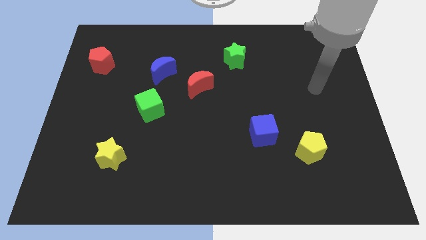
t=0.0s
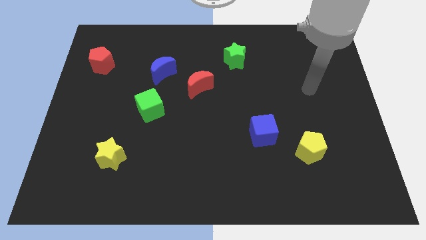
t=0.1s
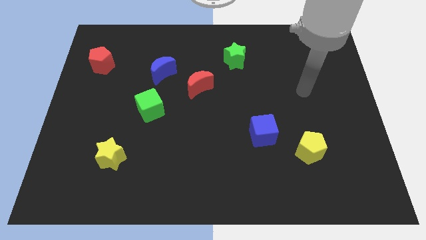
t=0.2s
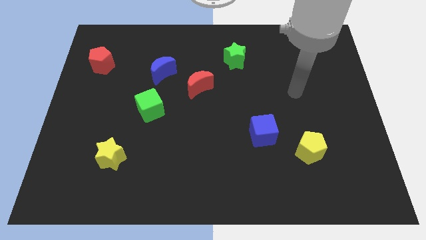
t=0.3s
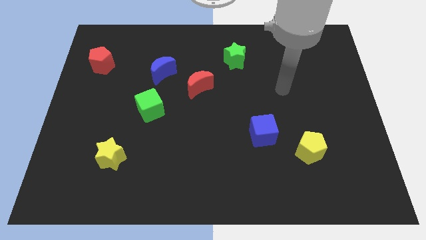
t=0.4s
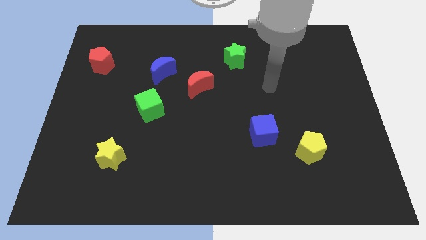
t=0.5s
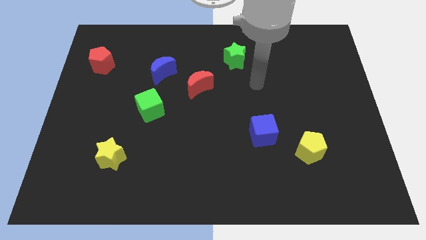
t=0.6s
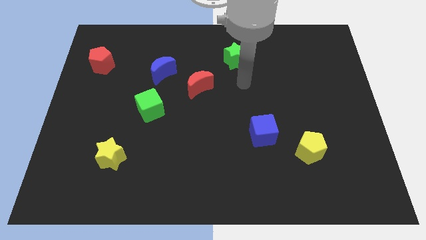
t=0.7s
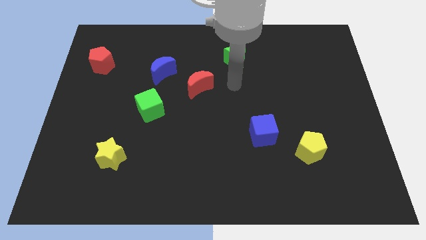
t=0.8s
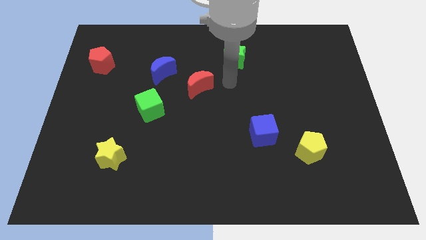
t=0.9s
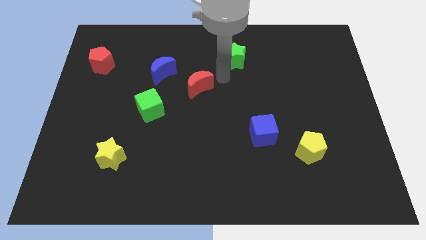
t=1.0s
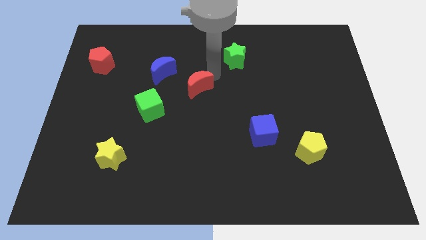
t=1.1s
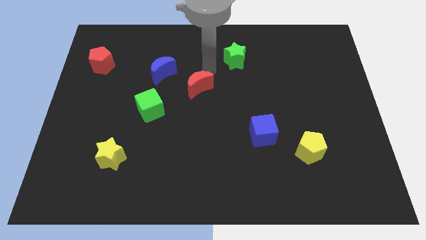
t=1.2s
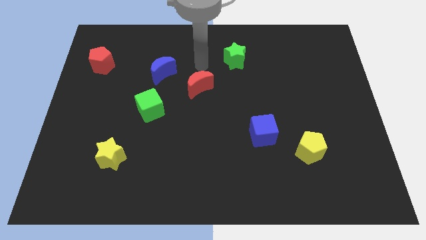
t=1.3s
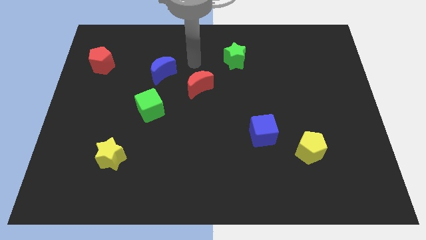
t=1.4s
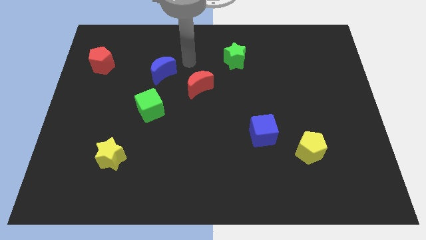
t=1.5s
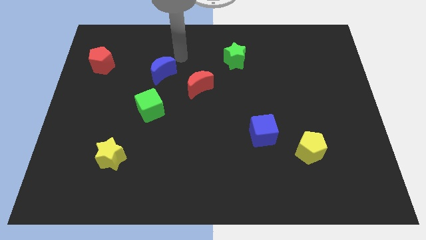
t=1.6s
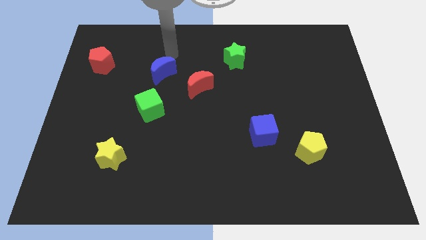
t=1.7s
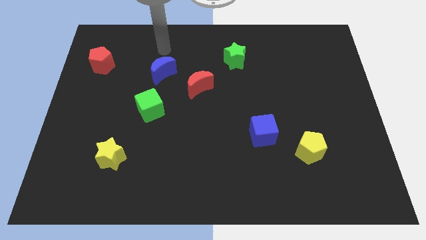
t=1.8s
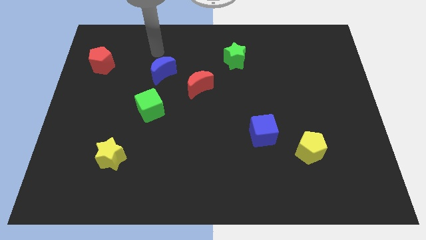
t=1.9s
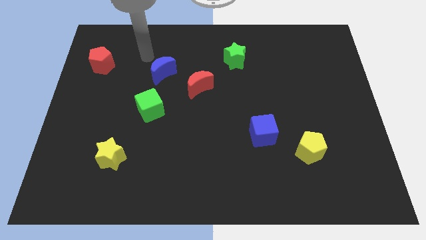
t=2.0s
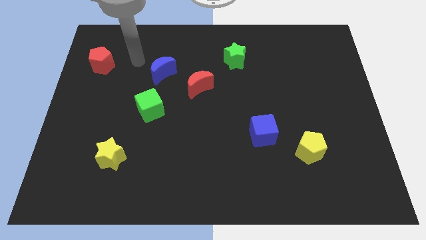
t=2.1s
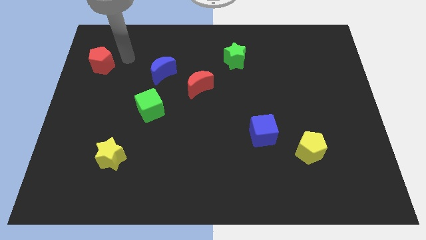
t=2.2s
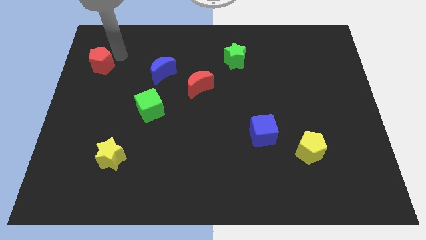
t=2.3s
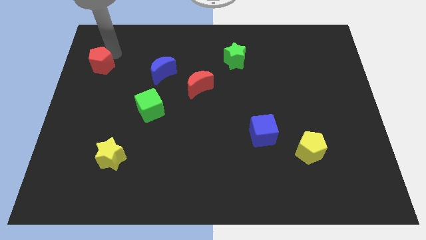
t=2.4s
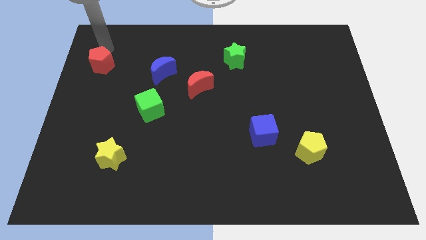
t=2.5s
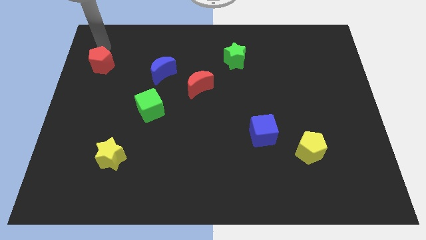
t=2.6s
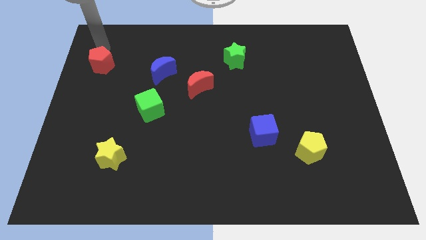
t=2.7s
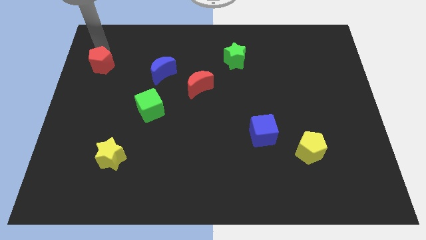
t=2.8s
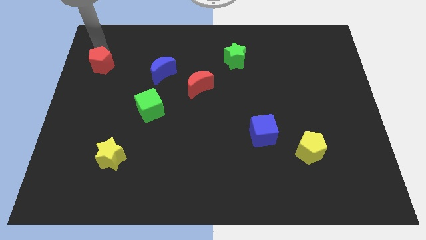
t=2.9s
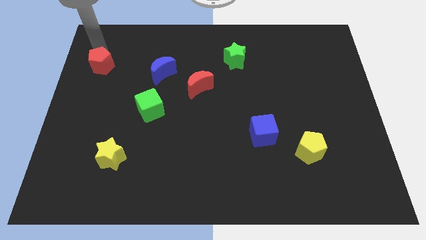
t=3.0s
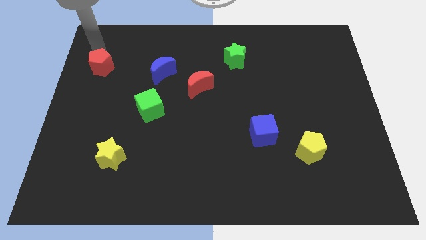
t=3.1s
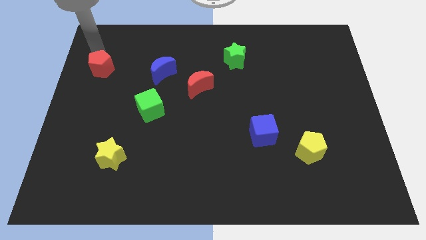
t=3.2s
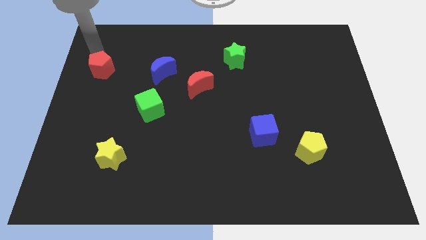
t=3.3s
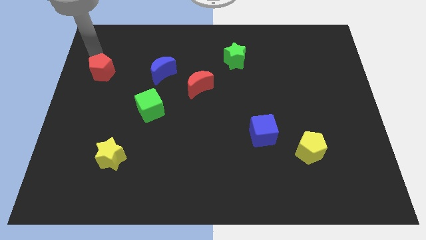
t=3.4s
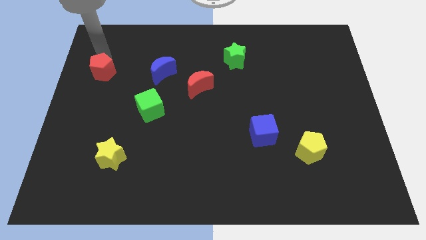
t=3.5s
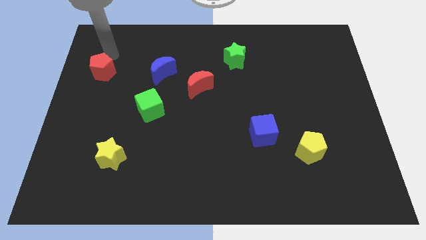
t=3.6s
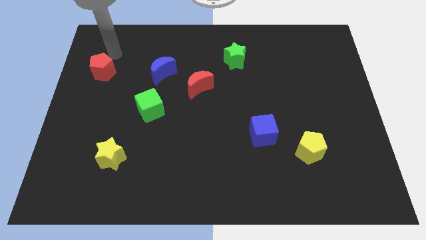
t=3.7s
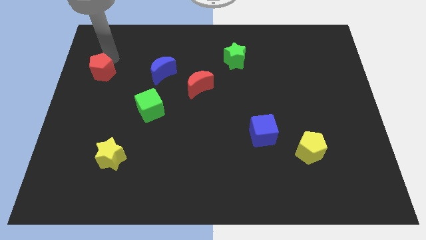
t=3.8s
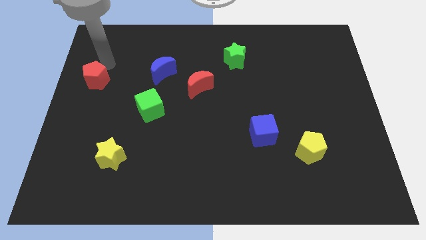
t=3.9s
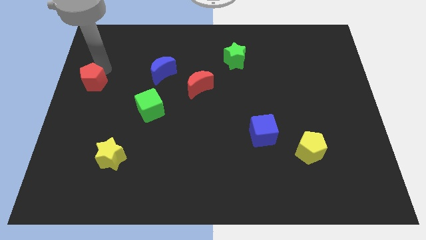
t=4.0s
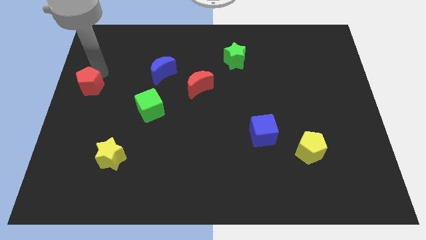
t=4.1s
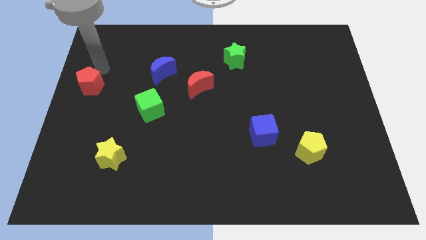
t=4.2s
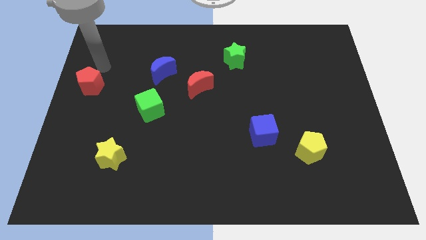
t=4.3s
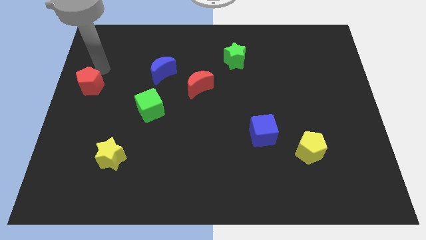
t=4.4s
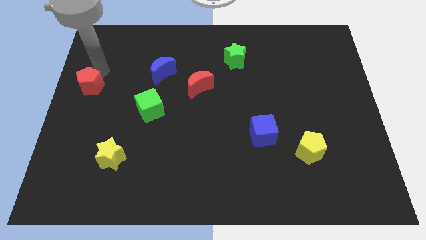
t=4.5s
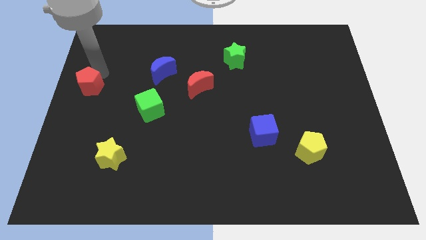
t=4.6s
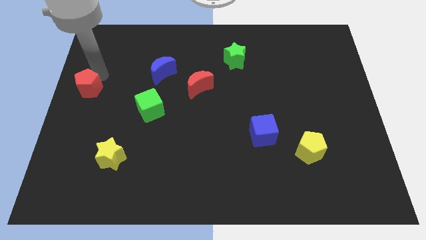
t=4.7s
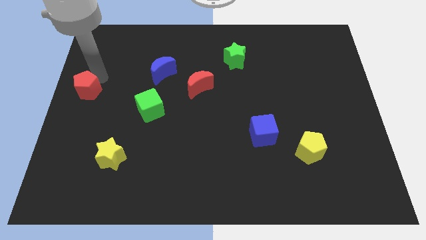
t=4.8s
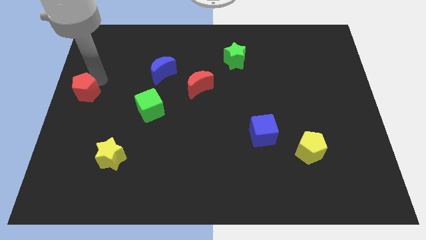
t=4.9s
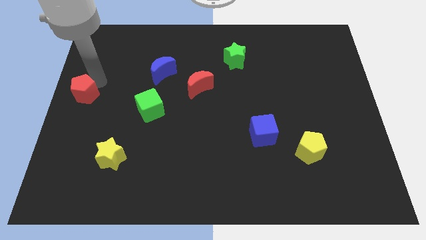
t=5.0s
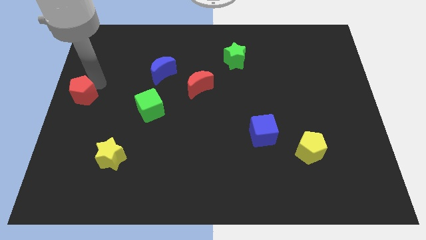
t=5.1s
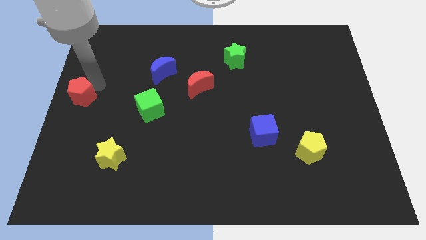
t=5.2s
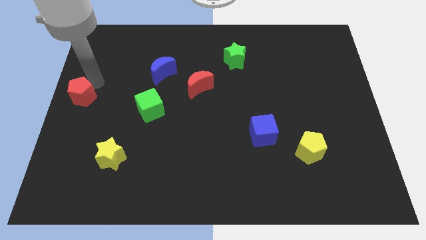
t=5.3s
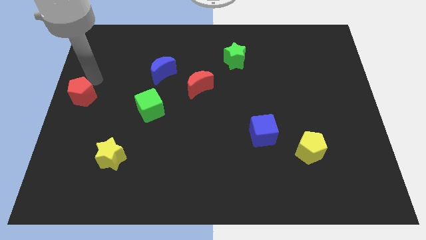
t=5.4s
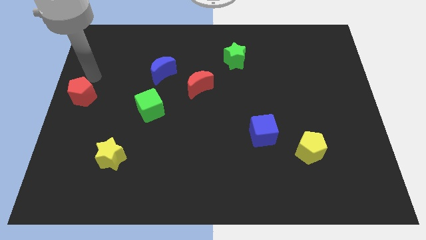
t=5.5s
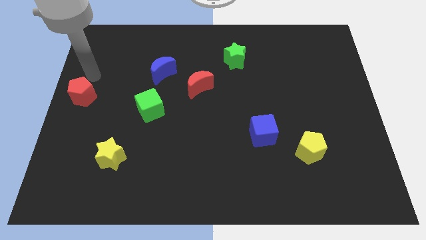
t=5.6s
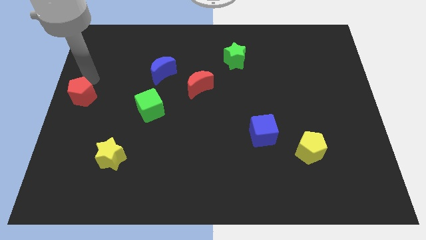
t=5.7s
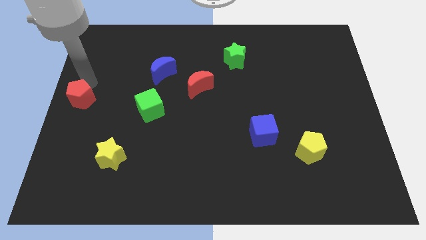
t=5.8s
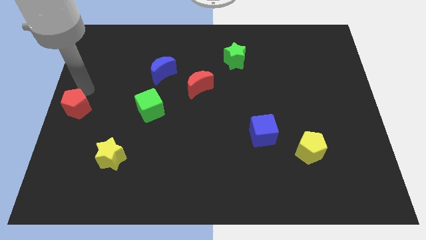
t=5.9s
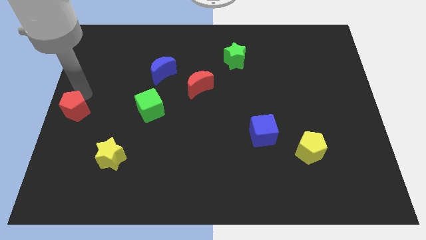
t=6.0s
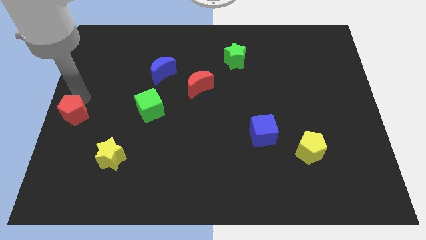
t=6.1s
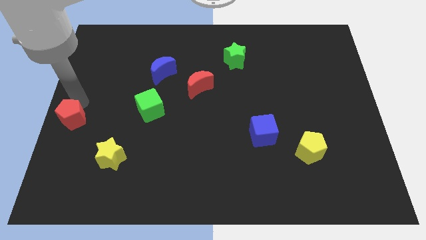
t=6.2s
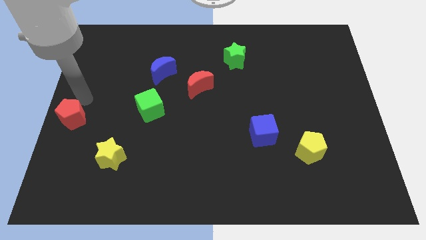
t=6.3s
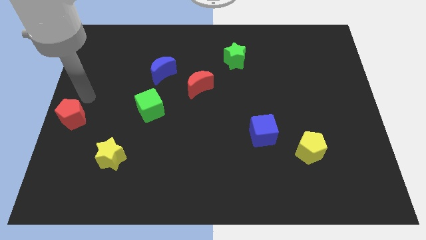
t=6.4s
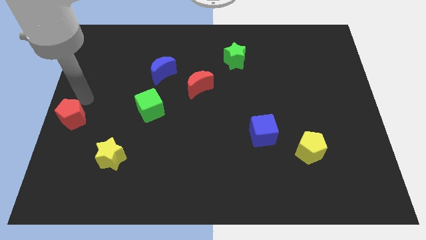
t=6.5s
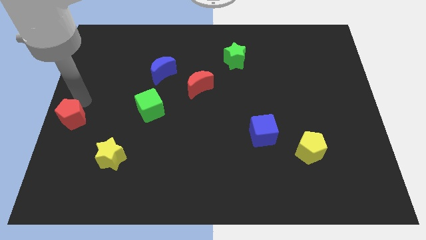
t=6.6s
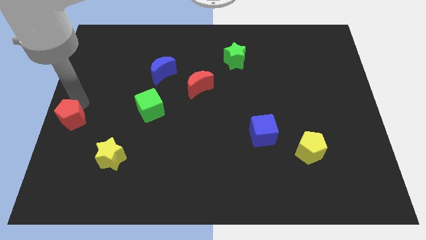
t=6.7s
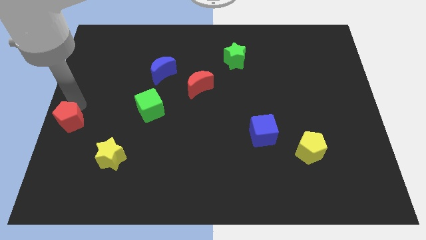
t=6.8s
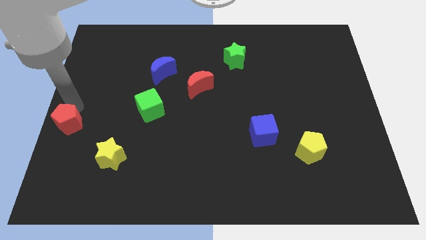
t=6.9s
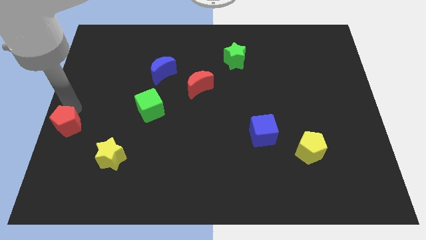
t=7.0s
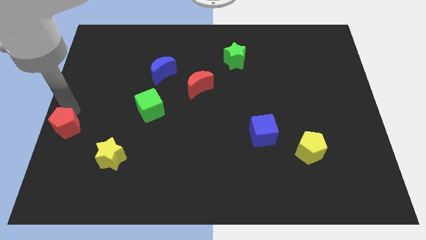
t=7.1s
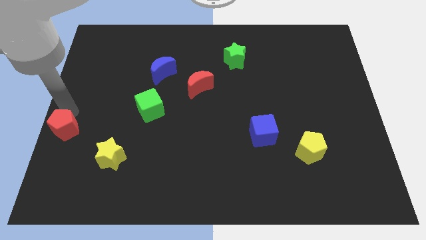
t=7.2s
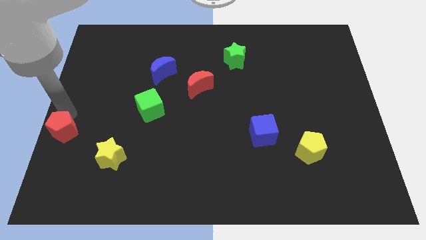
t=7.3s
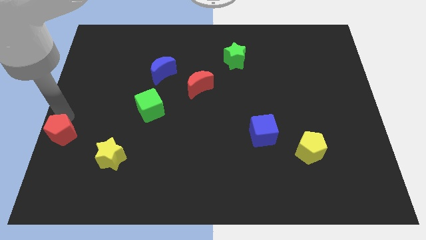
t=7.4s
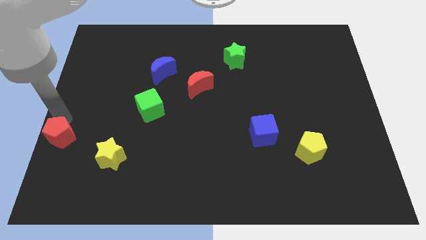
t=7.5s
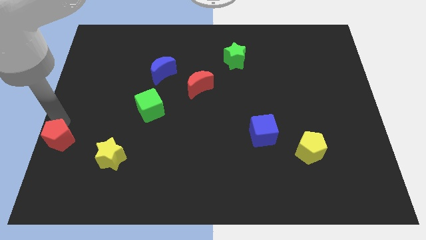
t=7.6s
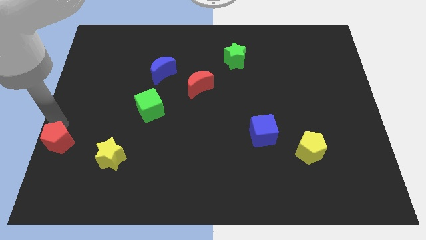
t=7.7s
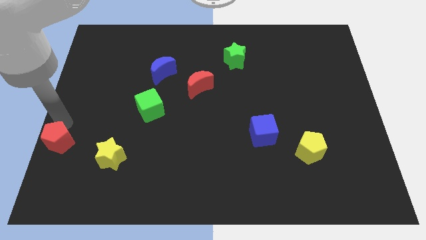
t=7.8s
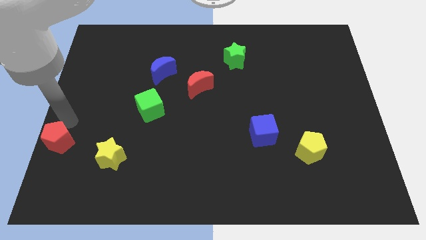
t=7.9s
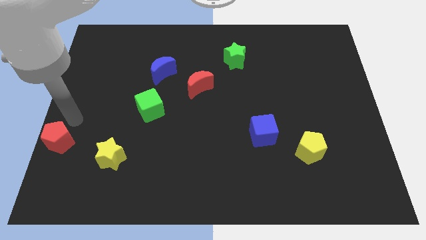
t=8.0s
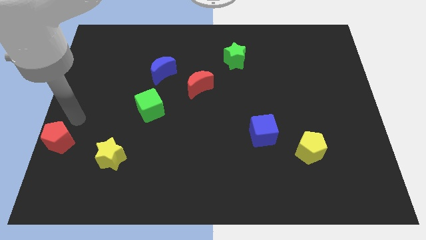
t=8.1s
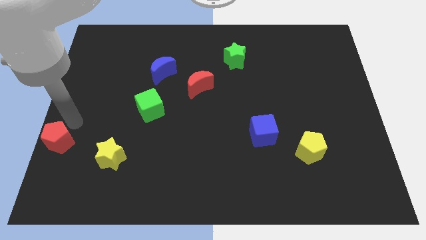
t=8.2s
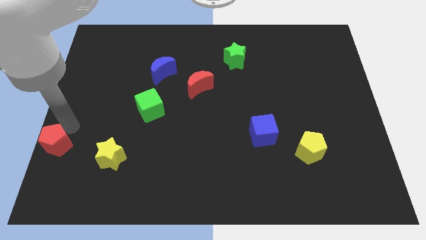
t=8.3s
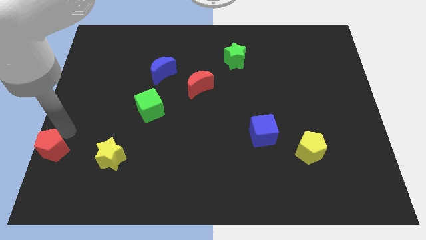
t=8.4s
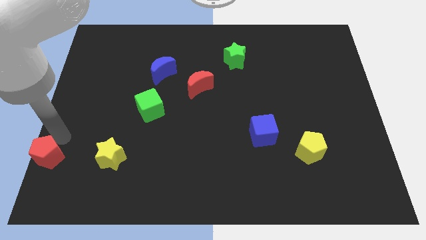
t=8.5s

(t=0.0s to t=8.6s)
put the red pentagon to the lower left corner
